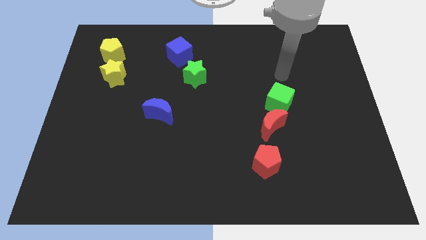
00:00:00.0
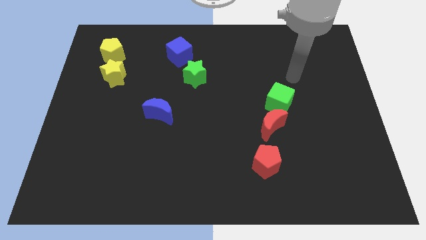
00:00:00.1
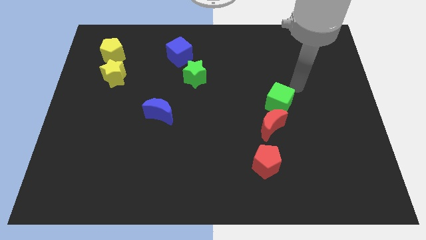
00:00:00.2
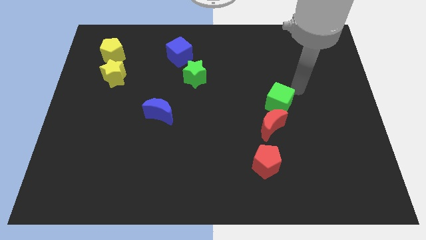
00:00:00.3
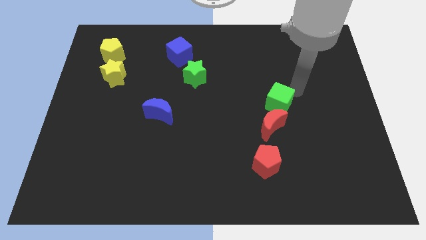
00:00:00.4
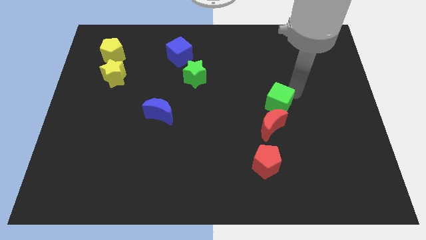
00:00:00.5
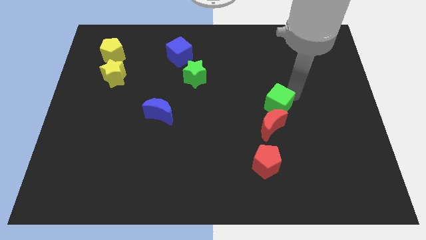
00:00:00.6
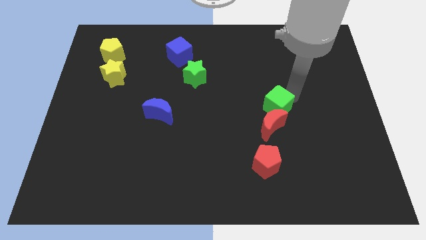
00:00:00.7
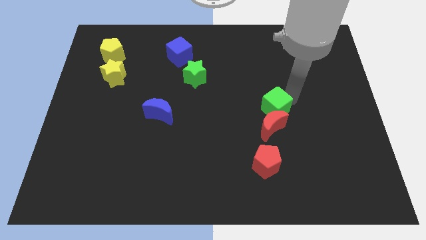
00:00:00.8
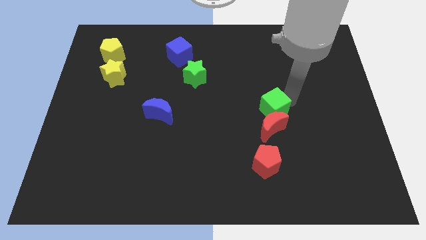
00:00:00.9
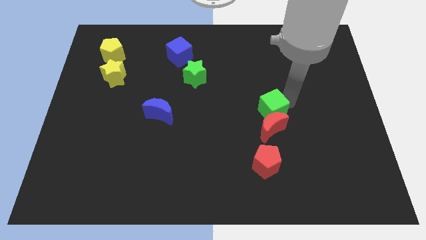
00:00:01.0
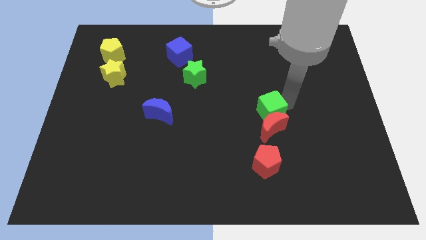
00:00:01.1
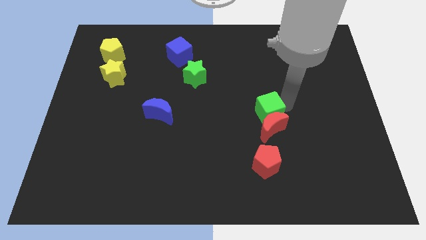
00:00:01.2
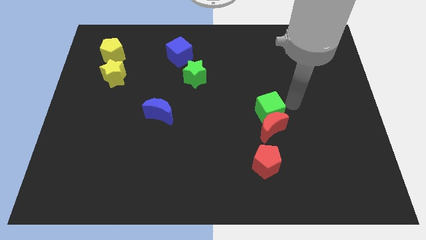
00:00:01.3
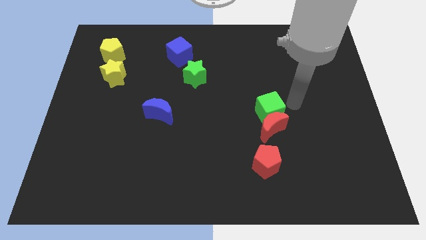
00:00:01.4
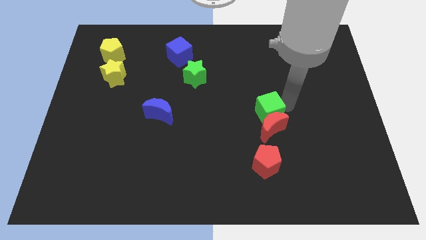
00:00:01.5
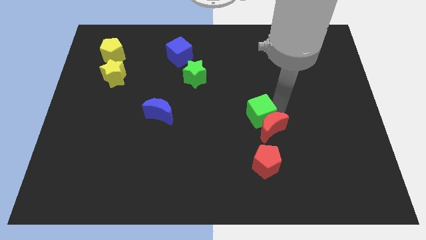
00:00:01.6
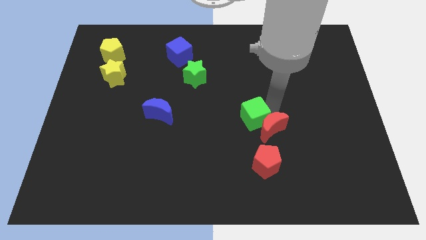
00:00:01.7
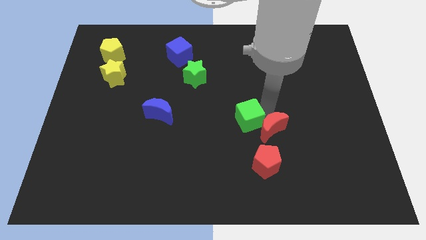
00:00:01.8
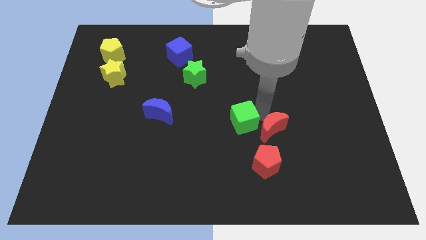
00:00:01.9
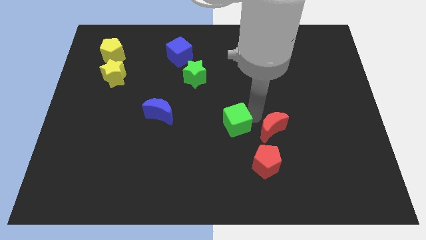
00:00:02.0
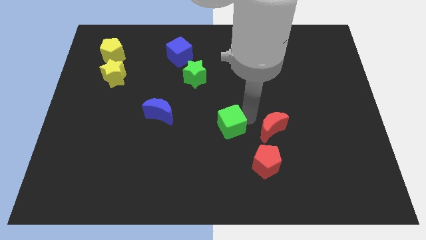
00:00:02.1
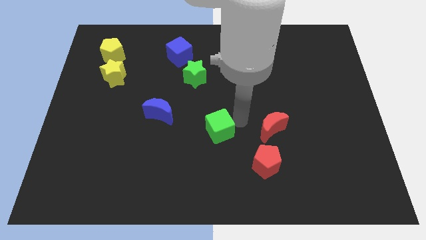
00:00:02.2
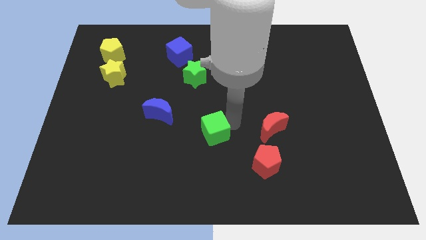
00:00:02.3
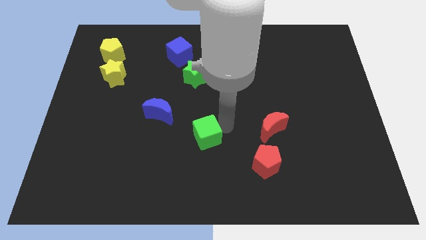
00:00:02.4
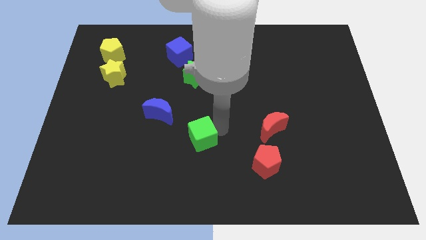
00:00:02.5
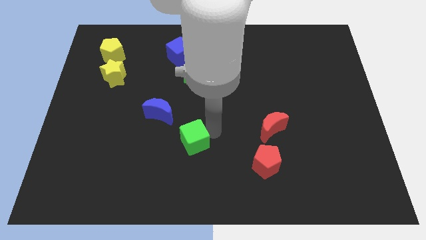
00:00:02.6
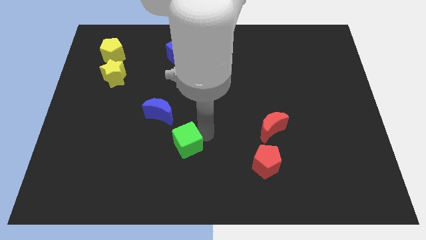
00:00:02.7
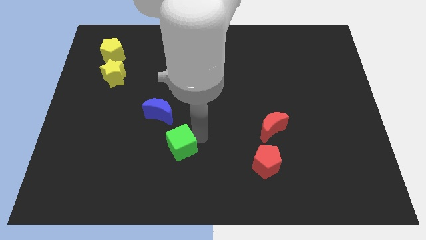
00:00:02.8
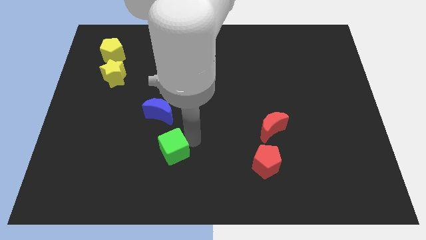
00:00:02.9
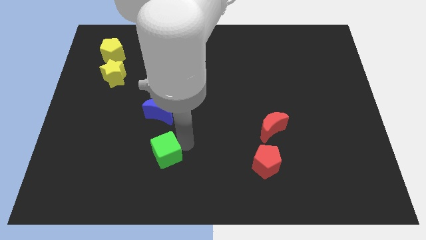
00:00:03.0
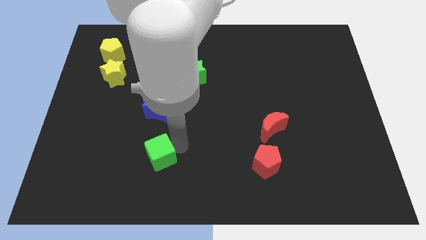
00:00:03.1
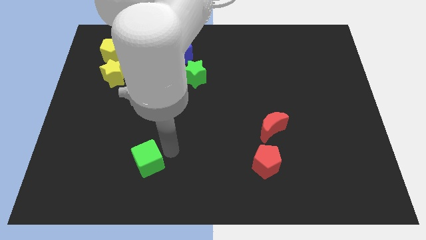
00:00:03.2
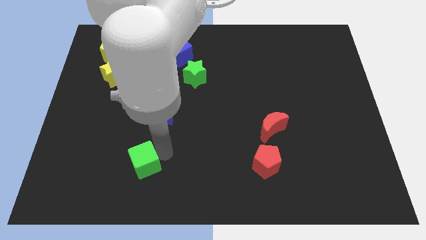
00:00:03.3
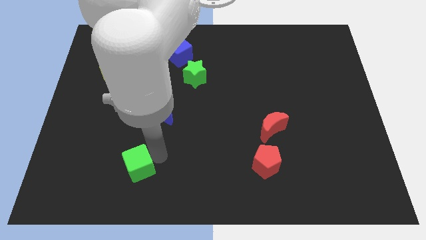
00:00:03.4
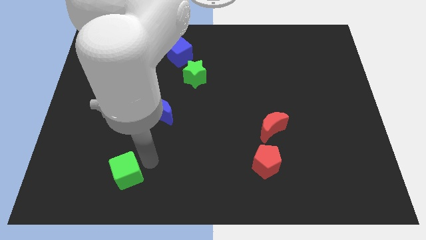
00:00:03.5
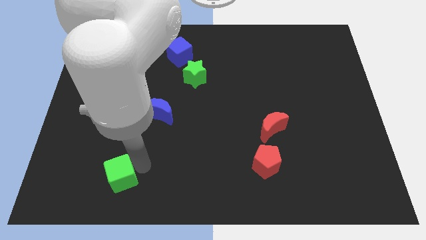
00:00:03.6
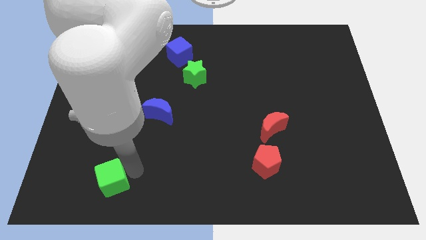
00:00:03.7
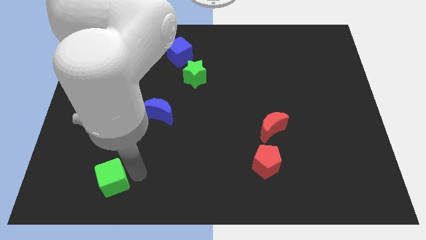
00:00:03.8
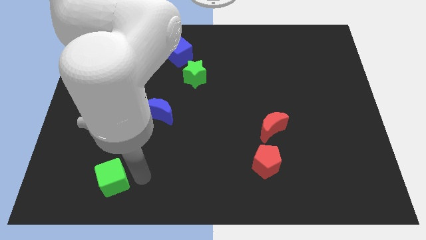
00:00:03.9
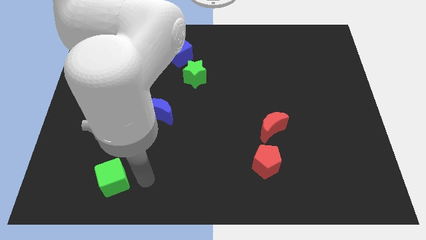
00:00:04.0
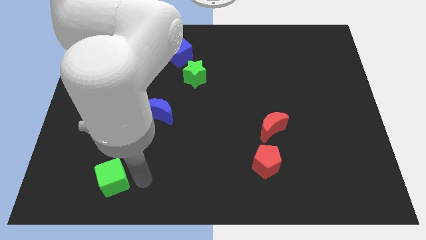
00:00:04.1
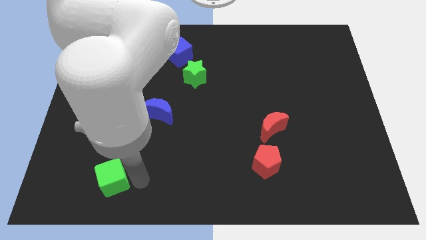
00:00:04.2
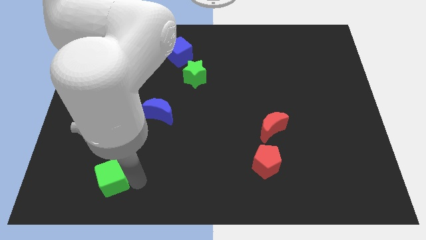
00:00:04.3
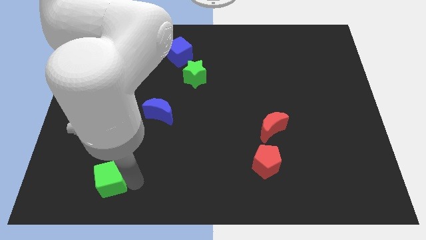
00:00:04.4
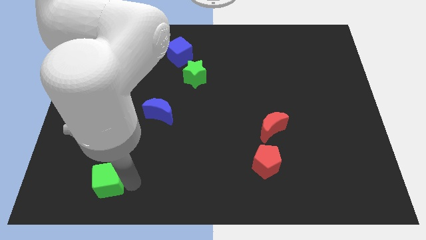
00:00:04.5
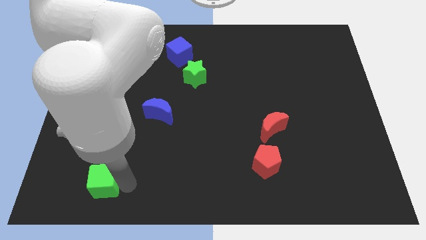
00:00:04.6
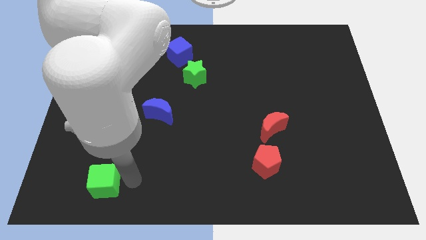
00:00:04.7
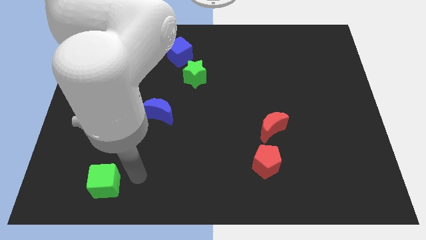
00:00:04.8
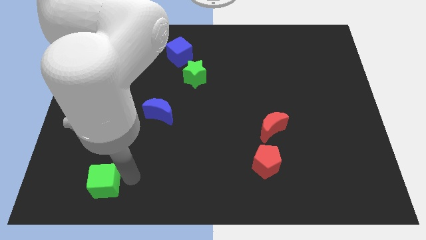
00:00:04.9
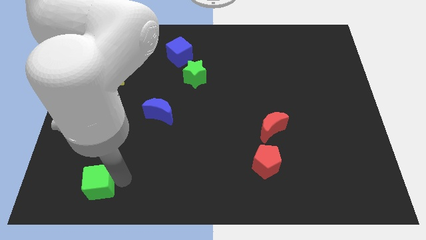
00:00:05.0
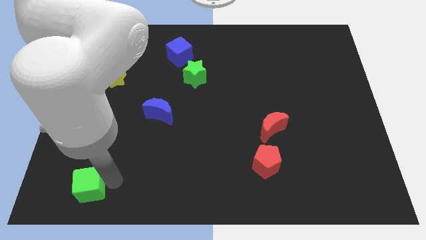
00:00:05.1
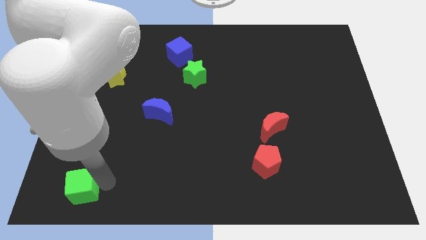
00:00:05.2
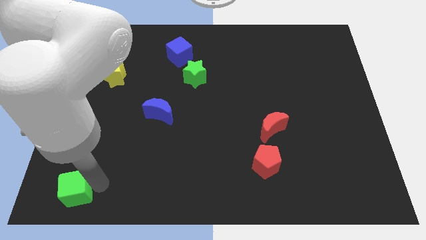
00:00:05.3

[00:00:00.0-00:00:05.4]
push the green cube to the bottom left

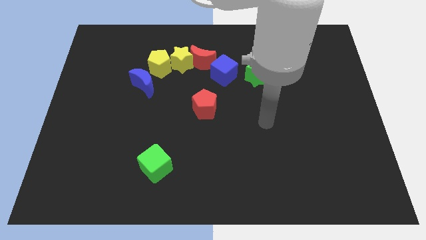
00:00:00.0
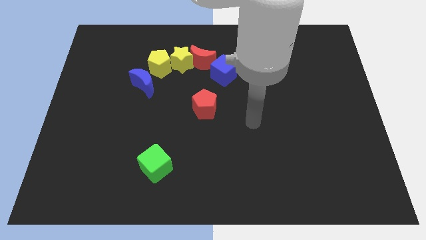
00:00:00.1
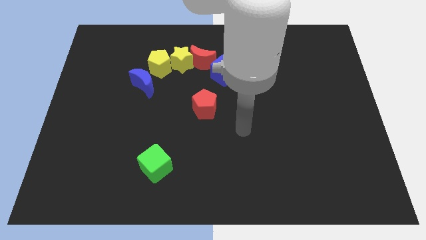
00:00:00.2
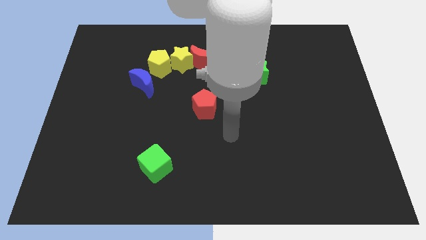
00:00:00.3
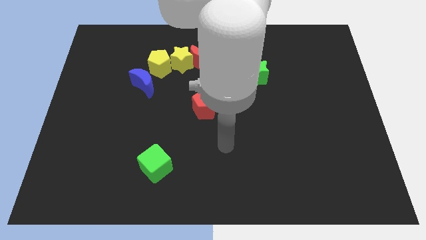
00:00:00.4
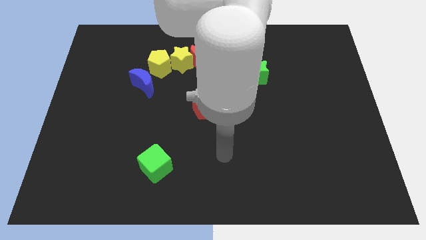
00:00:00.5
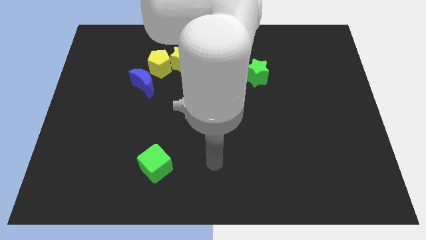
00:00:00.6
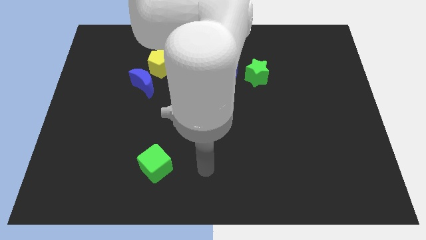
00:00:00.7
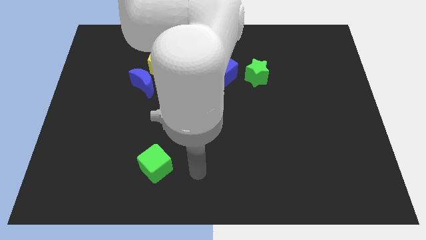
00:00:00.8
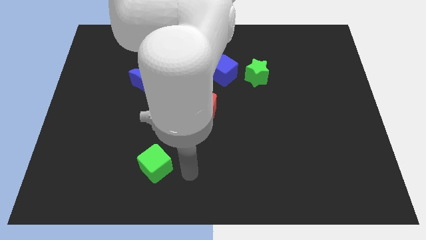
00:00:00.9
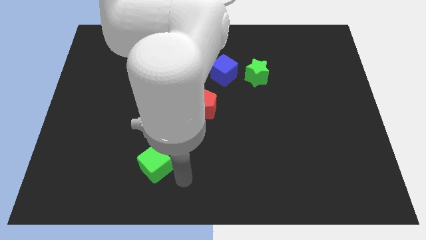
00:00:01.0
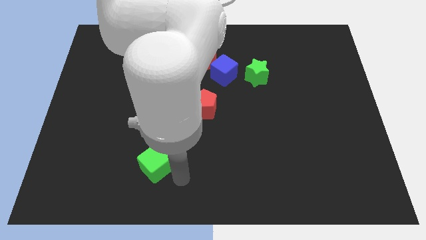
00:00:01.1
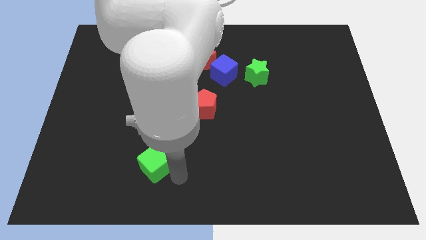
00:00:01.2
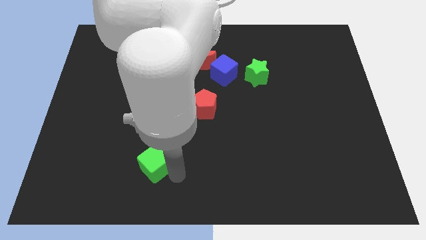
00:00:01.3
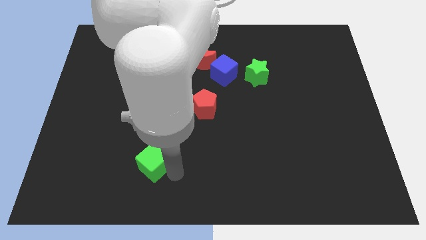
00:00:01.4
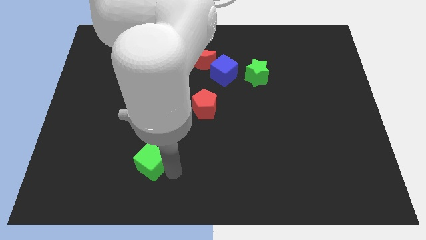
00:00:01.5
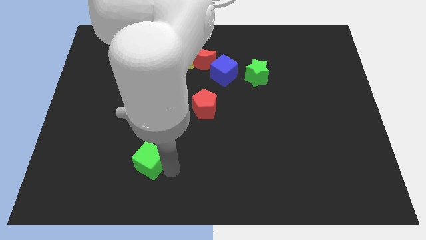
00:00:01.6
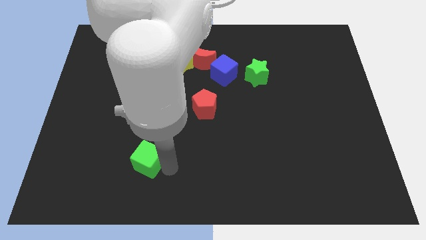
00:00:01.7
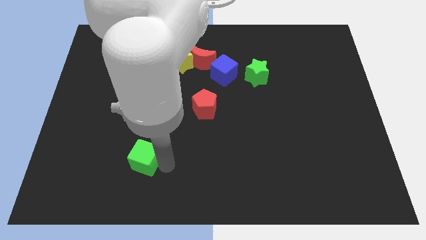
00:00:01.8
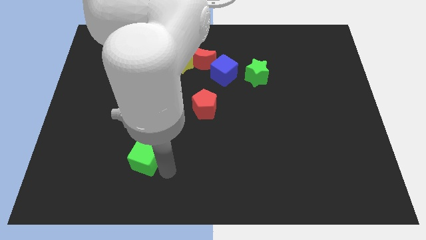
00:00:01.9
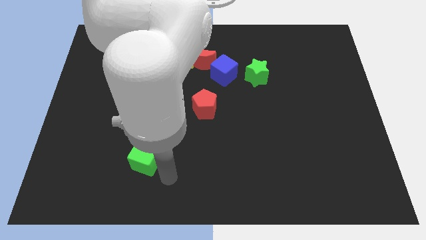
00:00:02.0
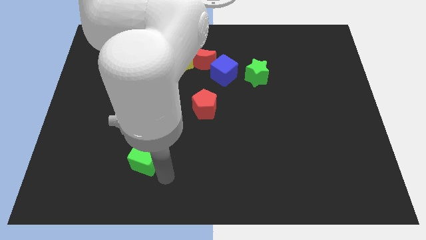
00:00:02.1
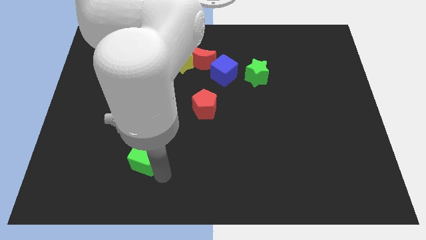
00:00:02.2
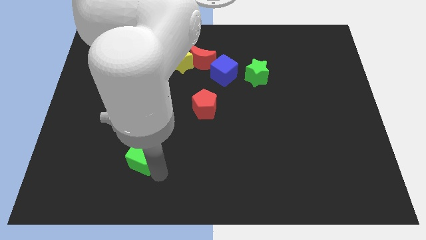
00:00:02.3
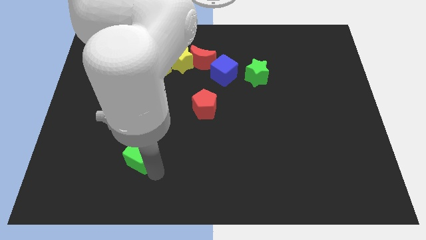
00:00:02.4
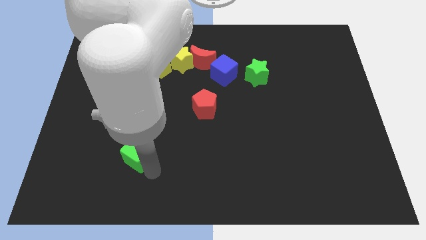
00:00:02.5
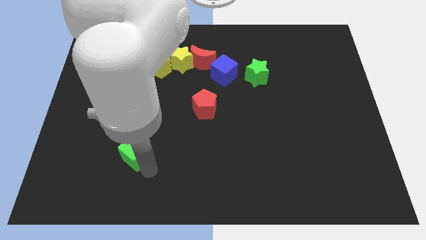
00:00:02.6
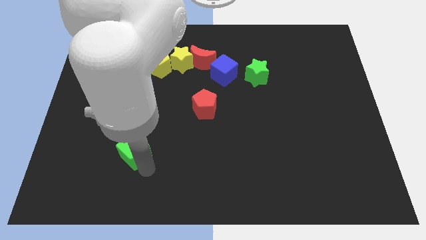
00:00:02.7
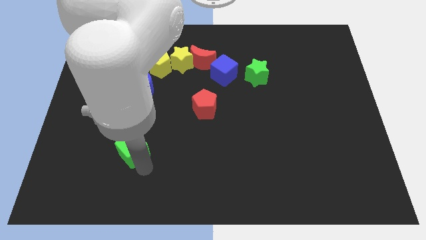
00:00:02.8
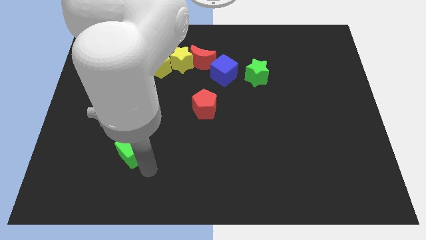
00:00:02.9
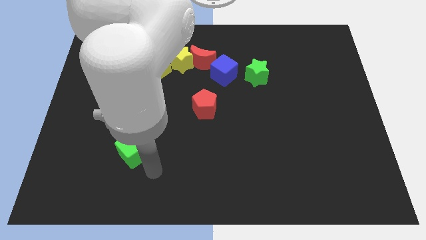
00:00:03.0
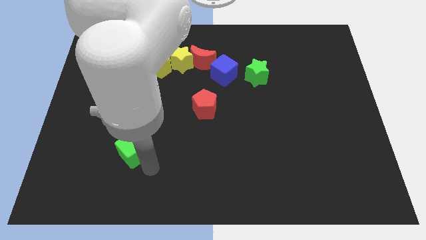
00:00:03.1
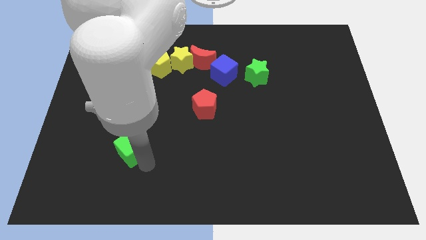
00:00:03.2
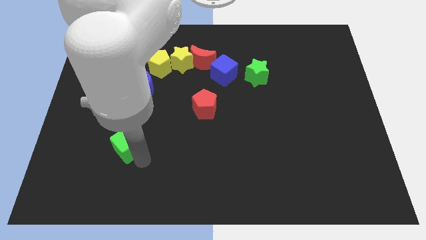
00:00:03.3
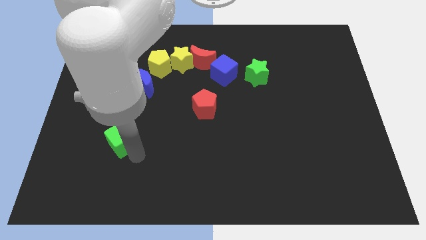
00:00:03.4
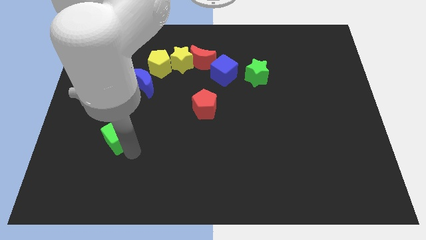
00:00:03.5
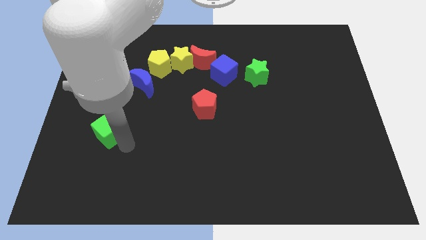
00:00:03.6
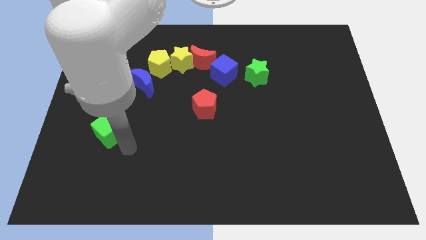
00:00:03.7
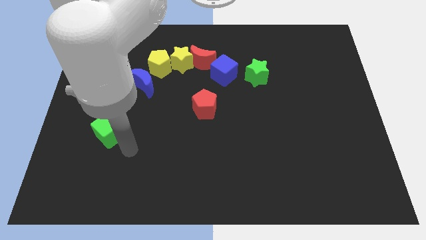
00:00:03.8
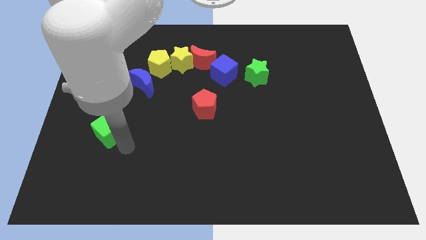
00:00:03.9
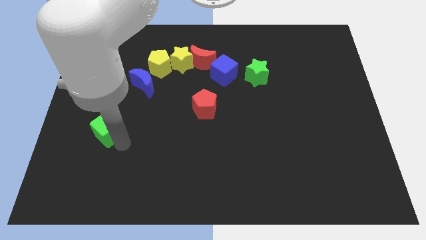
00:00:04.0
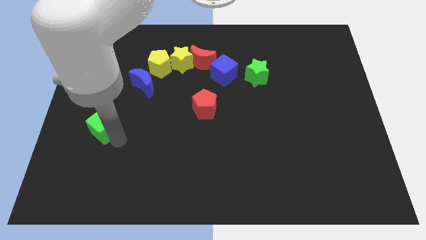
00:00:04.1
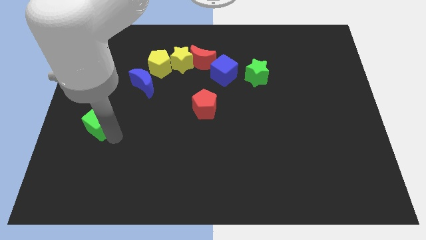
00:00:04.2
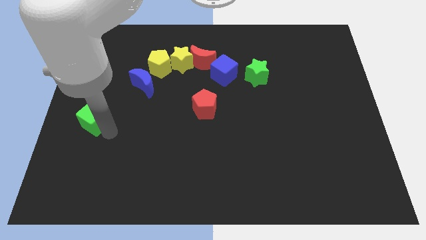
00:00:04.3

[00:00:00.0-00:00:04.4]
push the green cube to the left side
